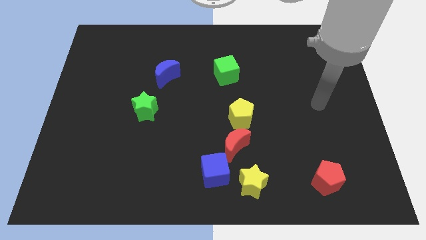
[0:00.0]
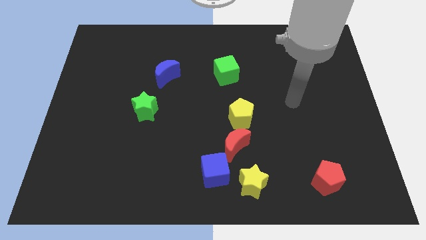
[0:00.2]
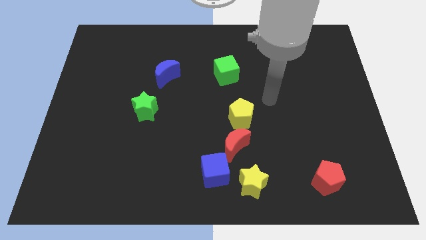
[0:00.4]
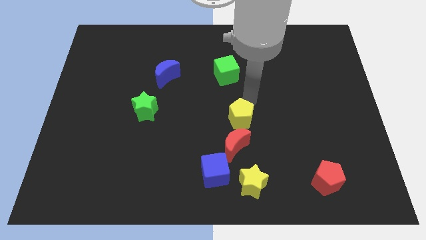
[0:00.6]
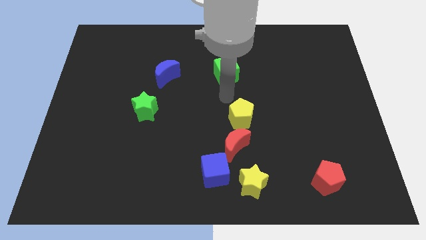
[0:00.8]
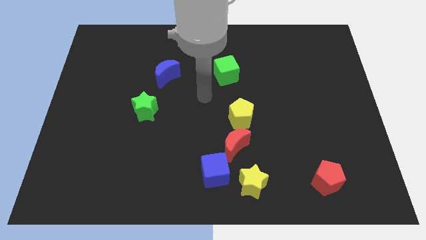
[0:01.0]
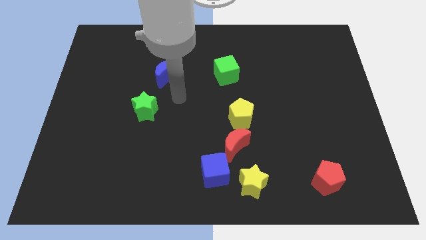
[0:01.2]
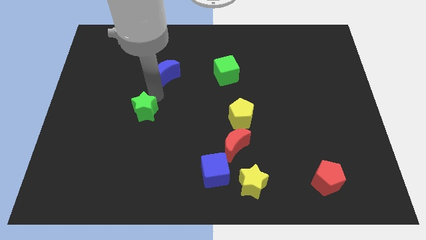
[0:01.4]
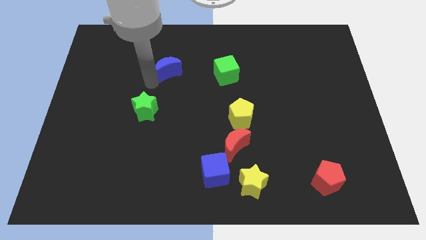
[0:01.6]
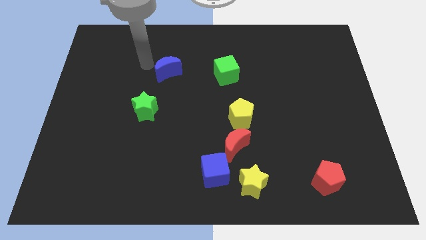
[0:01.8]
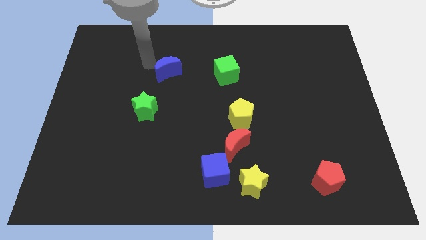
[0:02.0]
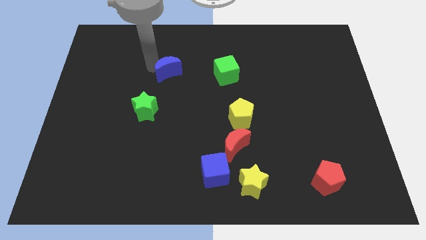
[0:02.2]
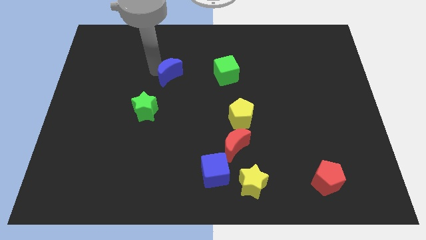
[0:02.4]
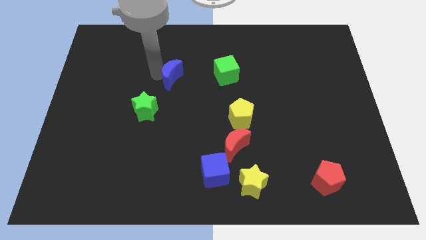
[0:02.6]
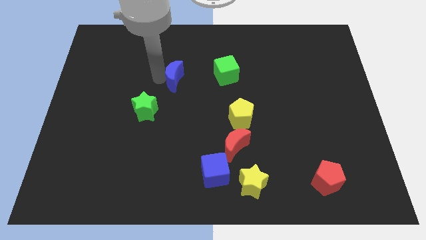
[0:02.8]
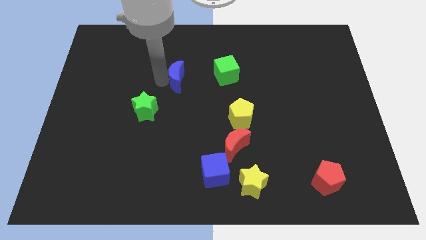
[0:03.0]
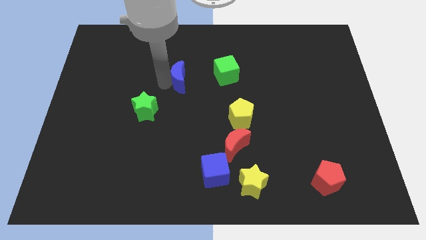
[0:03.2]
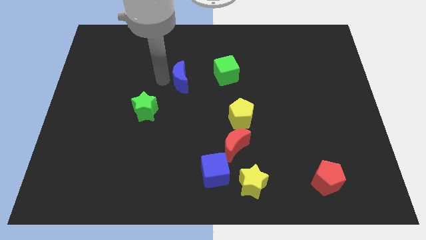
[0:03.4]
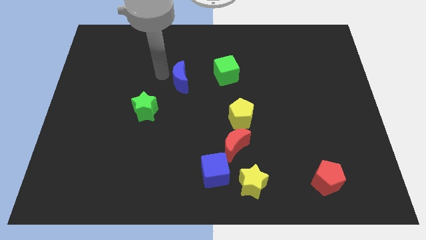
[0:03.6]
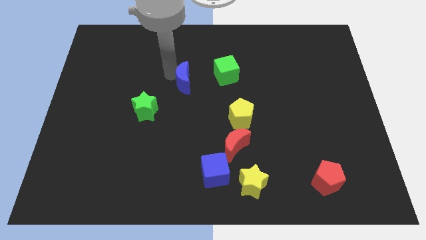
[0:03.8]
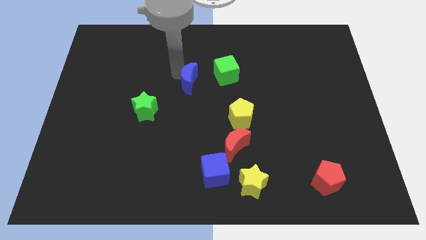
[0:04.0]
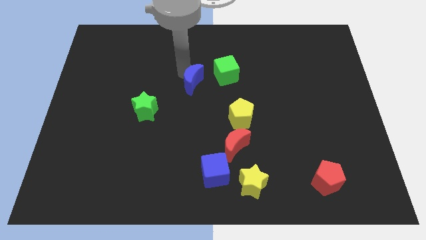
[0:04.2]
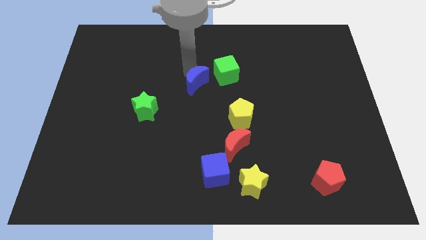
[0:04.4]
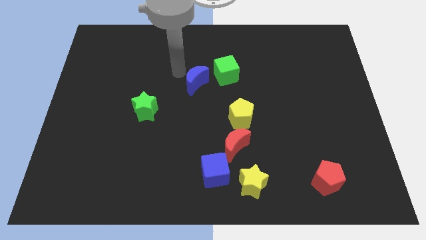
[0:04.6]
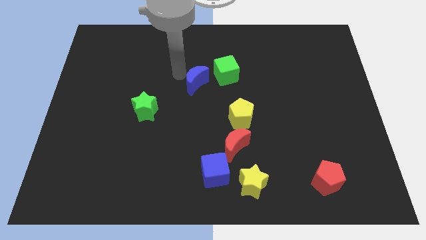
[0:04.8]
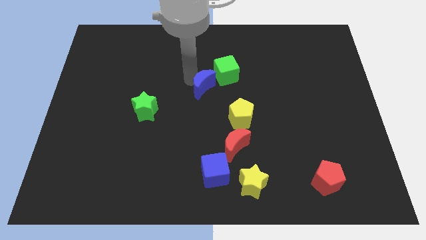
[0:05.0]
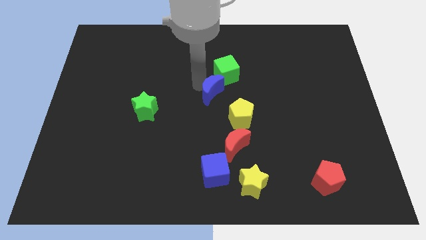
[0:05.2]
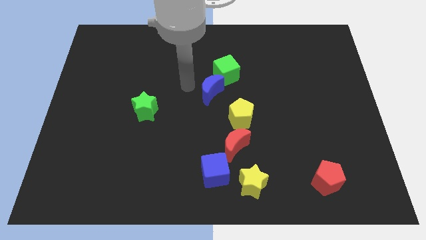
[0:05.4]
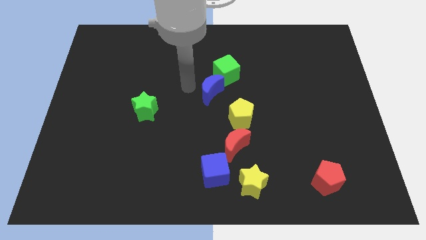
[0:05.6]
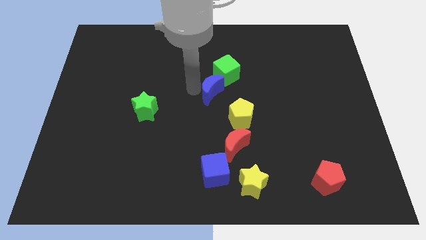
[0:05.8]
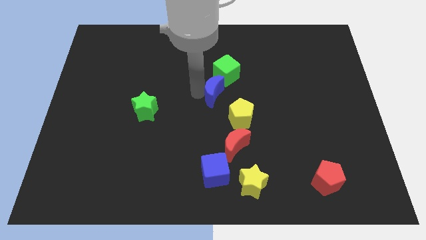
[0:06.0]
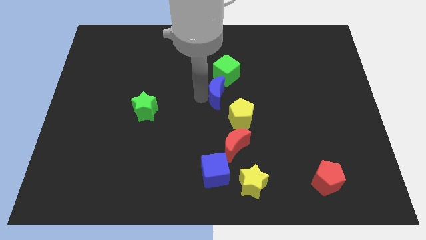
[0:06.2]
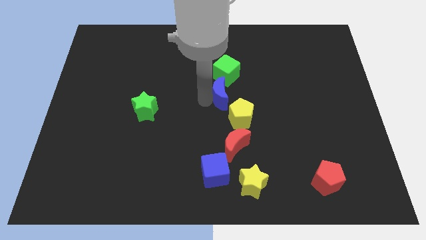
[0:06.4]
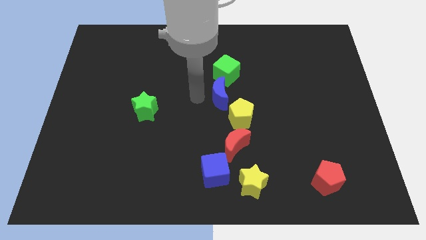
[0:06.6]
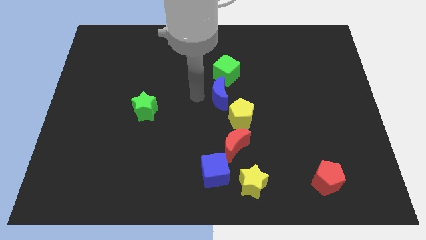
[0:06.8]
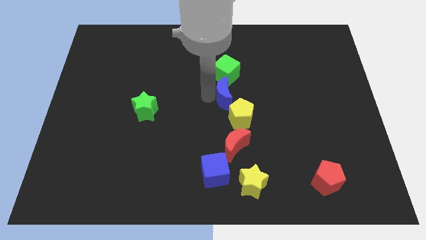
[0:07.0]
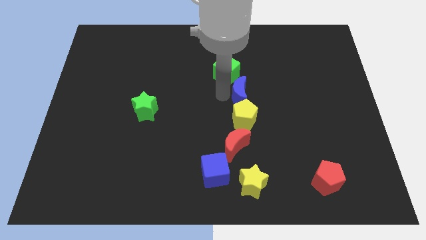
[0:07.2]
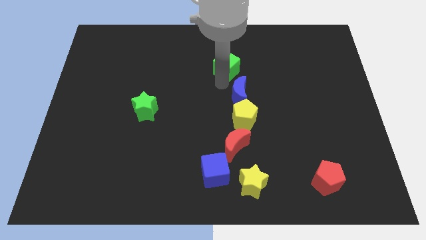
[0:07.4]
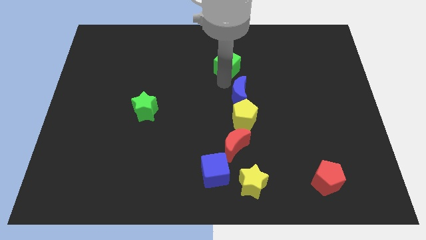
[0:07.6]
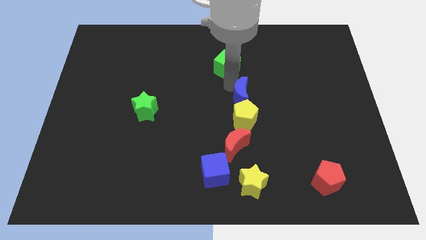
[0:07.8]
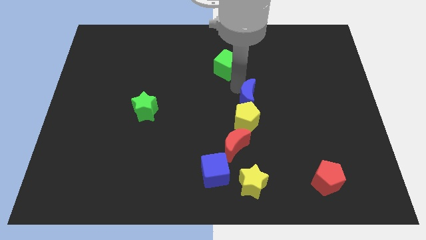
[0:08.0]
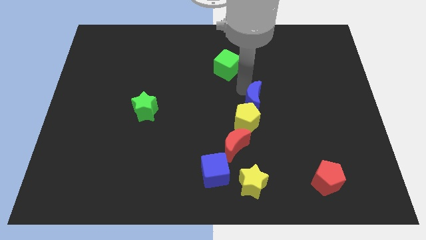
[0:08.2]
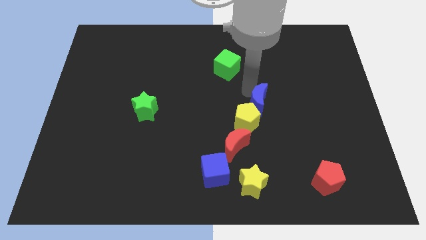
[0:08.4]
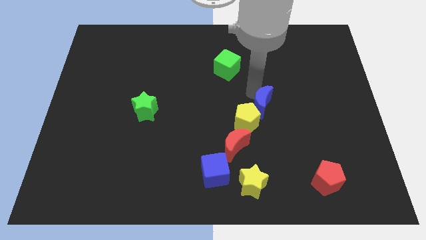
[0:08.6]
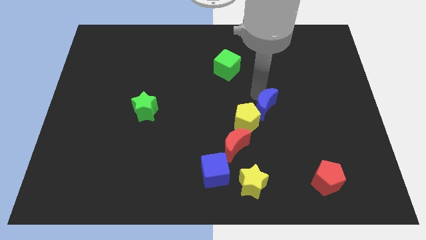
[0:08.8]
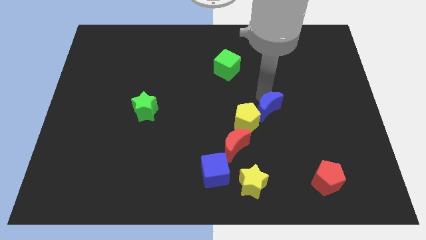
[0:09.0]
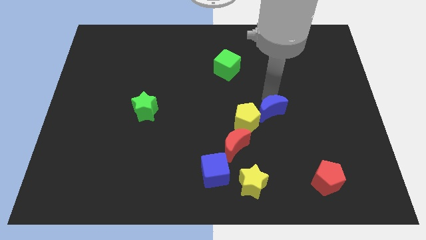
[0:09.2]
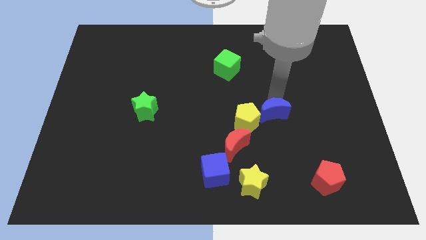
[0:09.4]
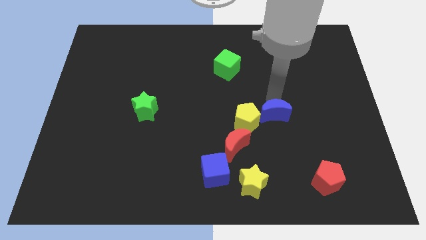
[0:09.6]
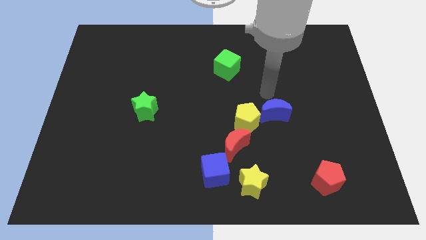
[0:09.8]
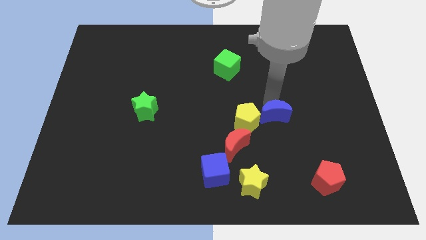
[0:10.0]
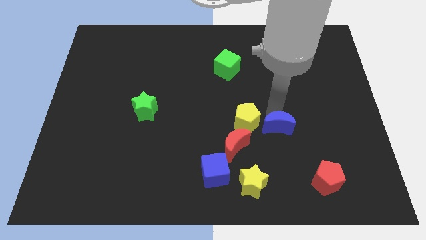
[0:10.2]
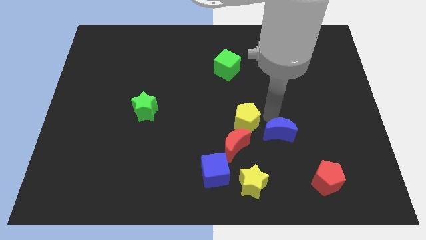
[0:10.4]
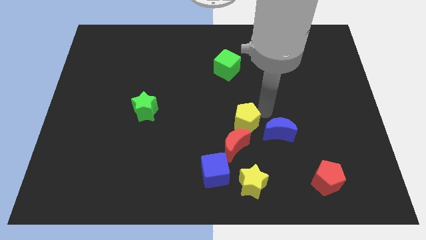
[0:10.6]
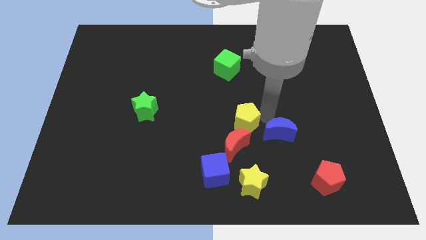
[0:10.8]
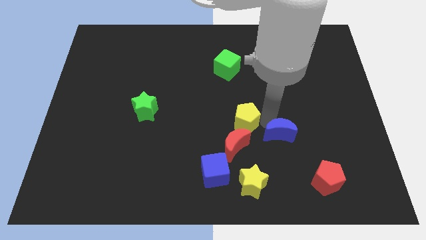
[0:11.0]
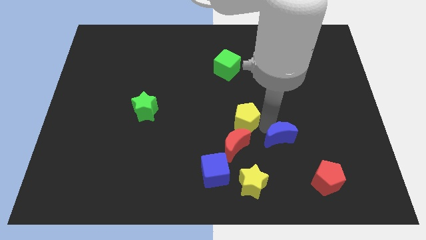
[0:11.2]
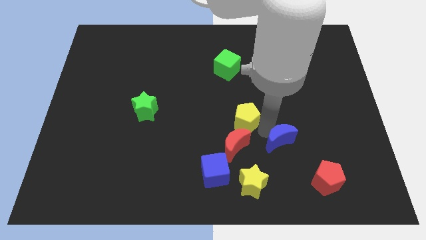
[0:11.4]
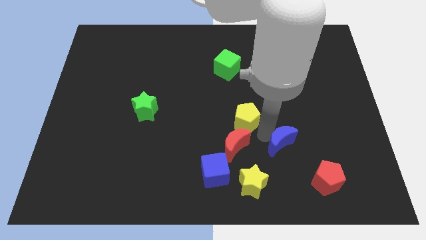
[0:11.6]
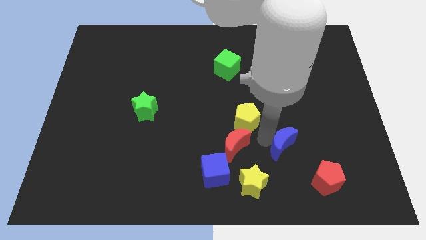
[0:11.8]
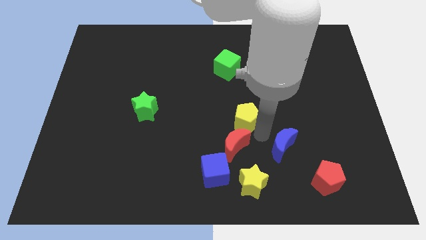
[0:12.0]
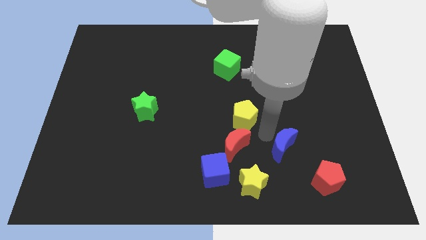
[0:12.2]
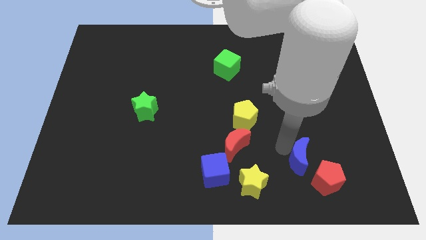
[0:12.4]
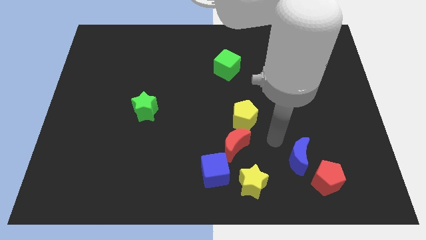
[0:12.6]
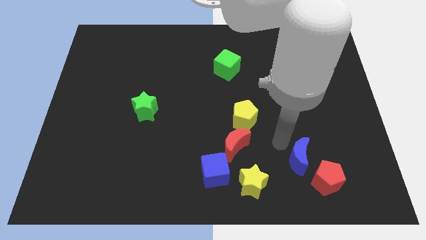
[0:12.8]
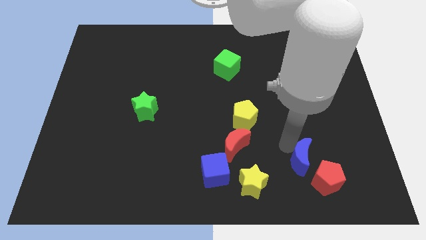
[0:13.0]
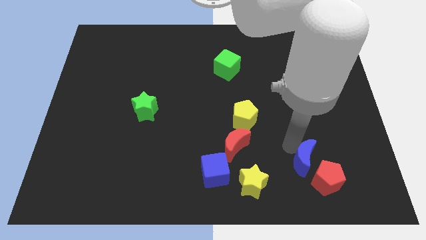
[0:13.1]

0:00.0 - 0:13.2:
push the blue moon to the red pentagon

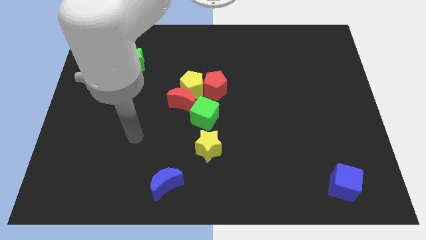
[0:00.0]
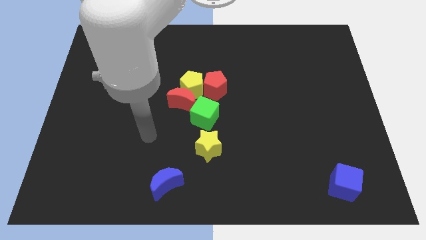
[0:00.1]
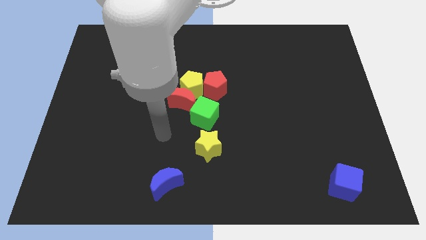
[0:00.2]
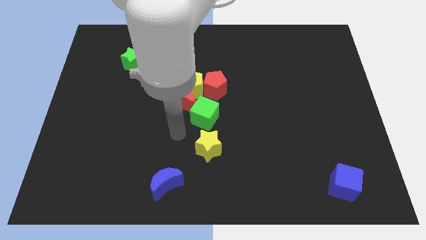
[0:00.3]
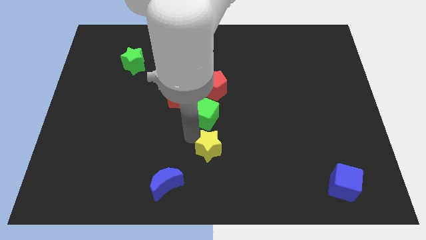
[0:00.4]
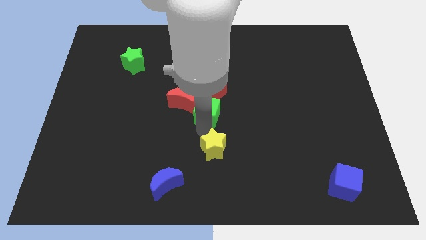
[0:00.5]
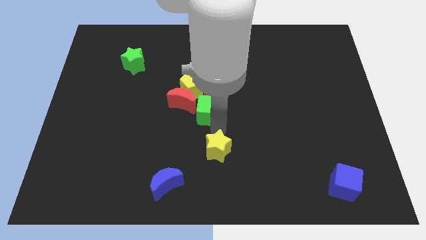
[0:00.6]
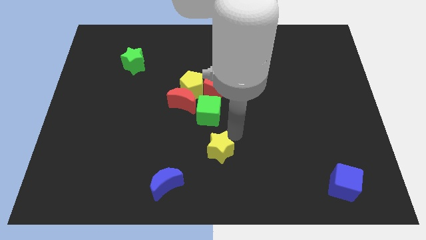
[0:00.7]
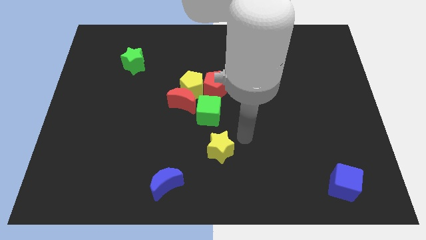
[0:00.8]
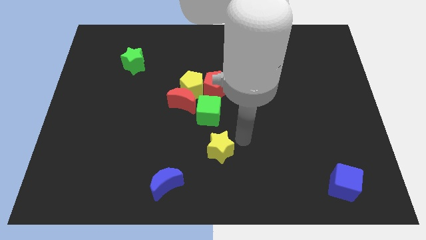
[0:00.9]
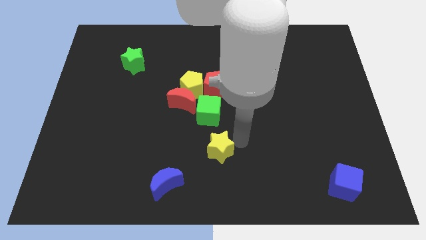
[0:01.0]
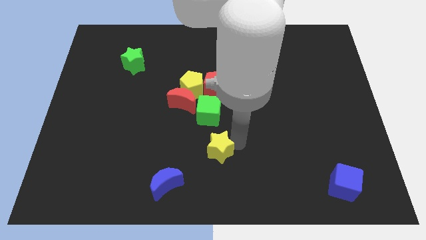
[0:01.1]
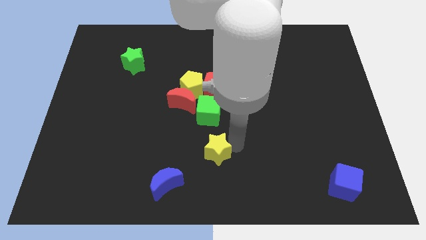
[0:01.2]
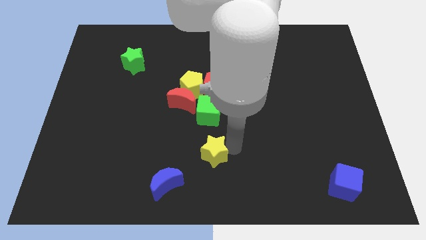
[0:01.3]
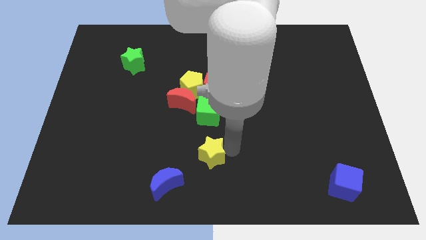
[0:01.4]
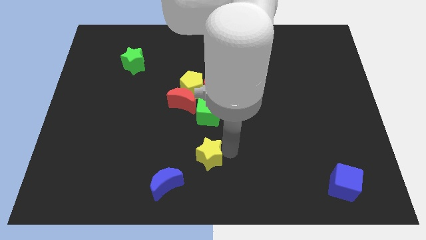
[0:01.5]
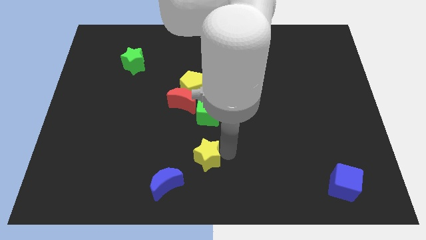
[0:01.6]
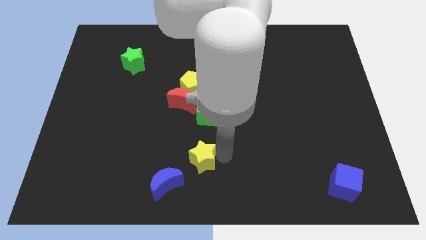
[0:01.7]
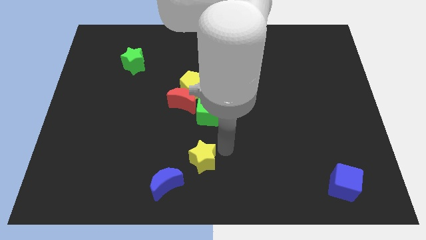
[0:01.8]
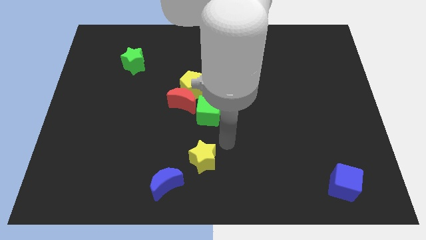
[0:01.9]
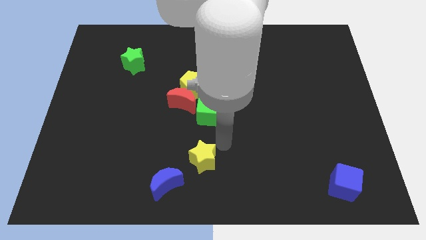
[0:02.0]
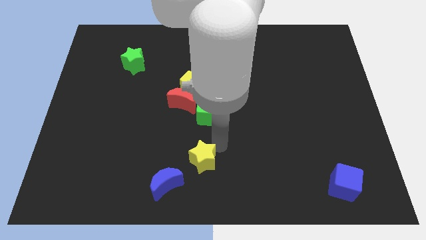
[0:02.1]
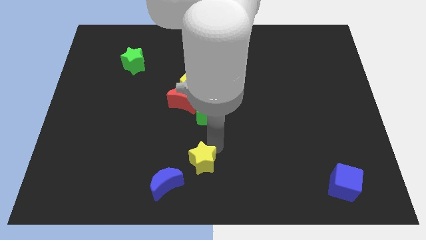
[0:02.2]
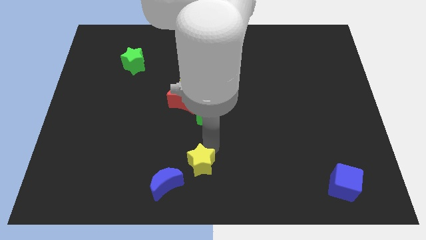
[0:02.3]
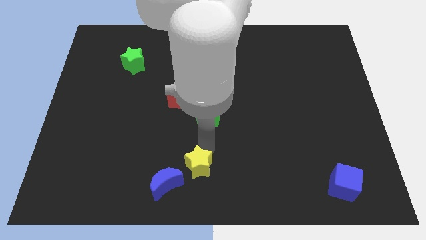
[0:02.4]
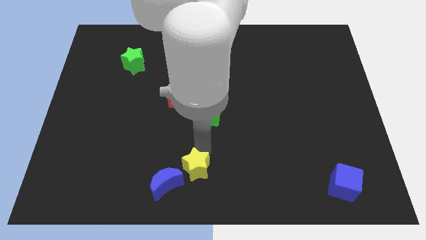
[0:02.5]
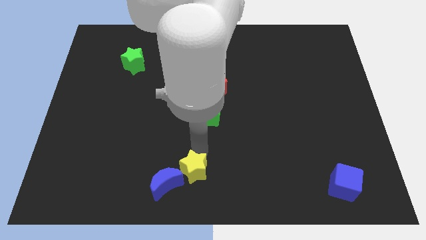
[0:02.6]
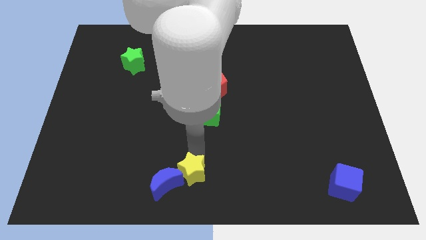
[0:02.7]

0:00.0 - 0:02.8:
slide the yellow star to the blue moon
